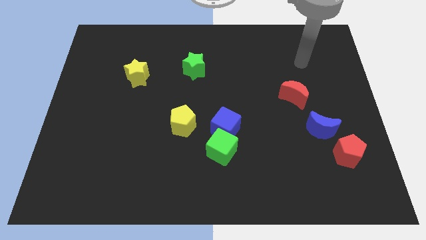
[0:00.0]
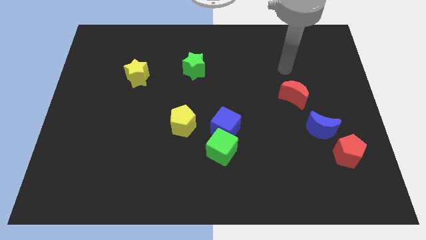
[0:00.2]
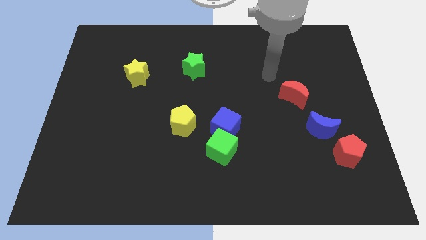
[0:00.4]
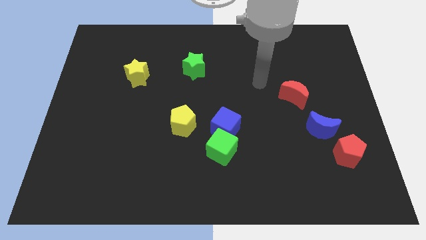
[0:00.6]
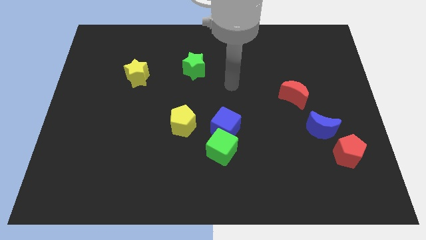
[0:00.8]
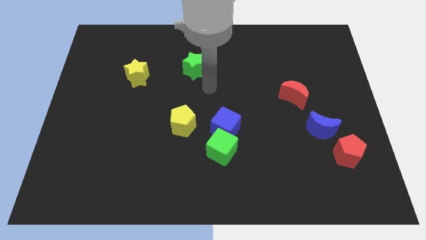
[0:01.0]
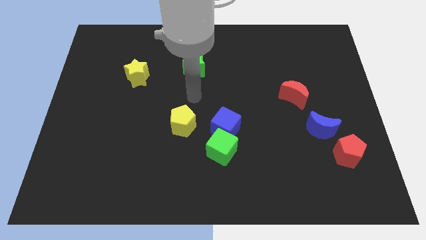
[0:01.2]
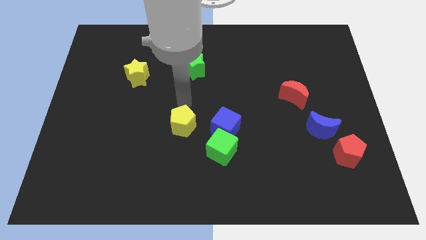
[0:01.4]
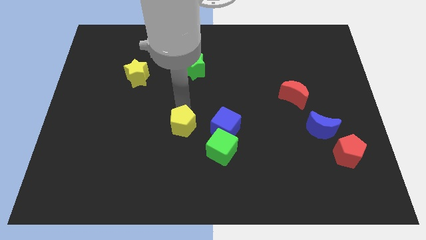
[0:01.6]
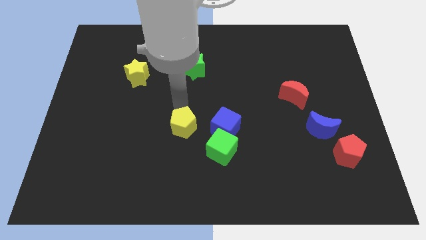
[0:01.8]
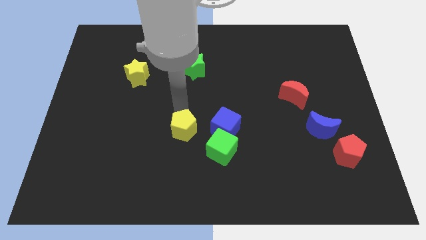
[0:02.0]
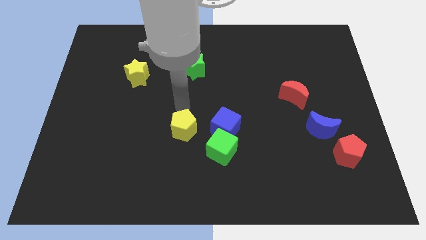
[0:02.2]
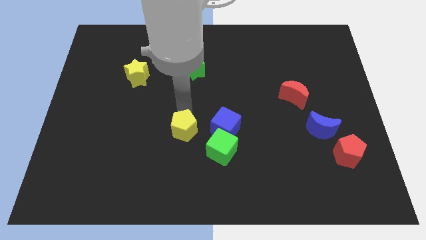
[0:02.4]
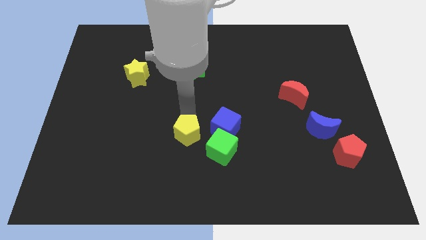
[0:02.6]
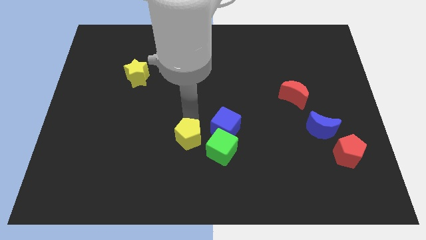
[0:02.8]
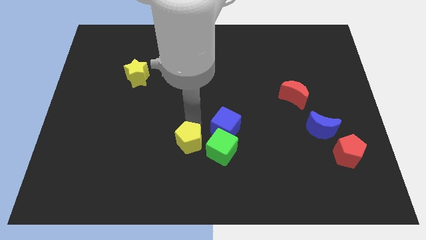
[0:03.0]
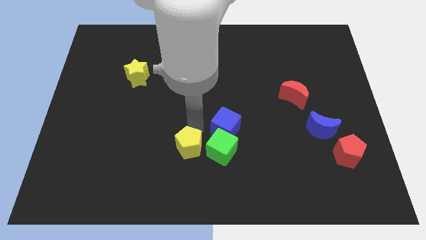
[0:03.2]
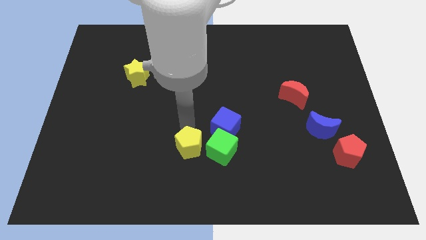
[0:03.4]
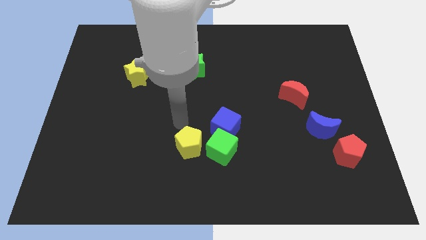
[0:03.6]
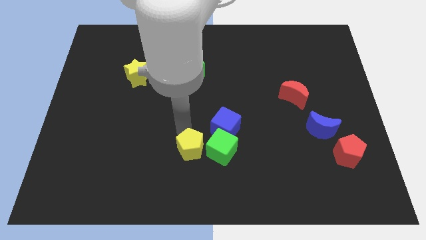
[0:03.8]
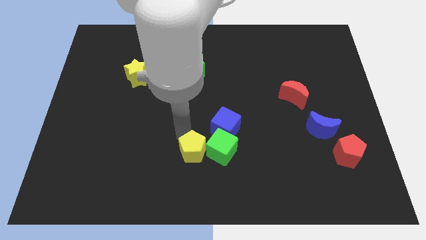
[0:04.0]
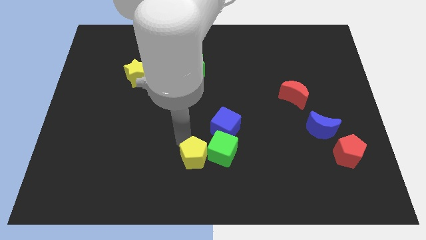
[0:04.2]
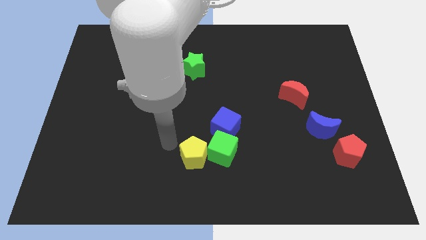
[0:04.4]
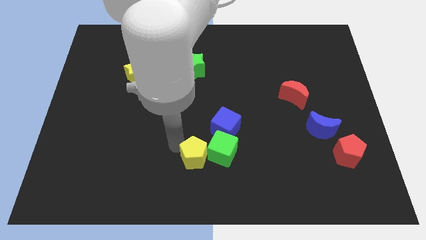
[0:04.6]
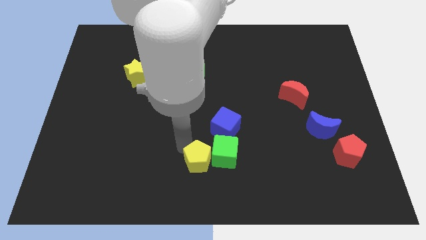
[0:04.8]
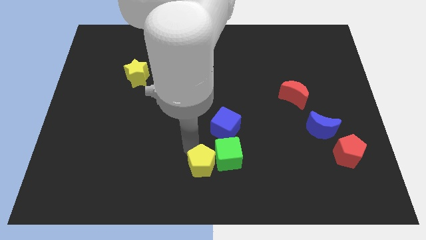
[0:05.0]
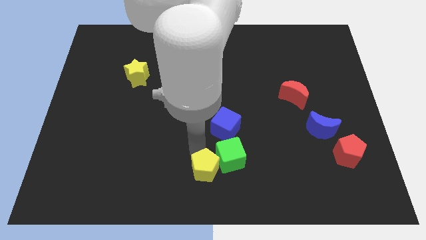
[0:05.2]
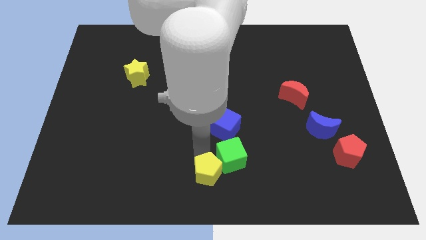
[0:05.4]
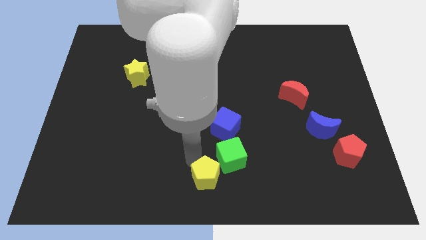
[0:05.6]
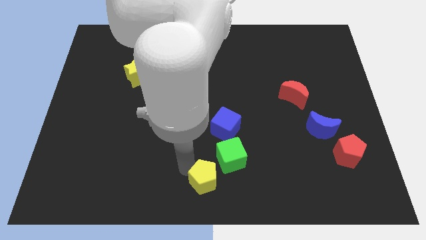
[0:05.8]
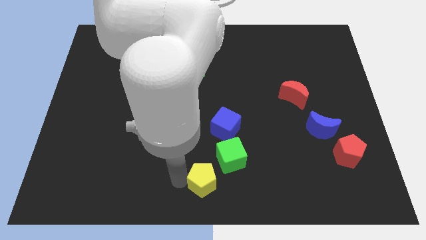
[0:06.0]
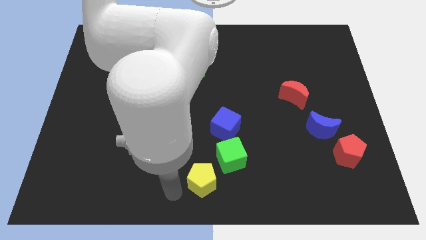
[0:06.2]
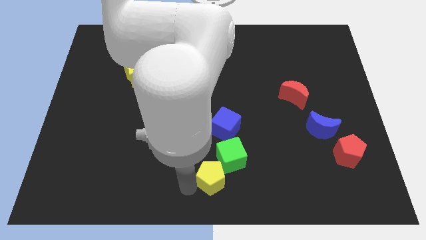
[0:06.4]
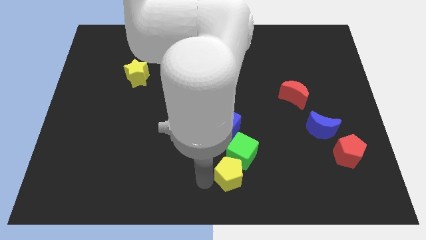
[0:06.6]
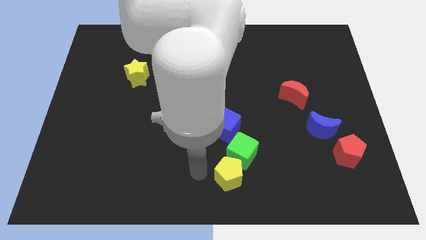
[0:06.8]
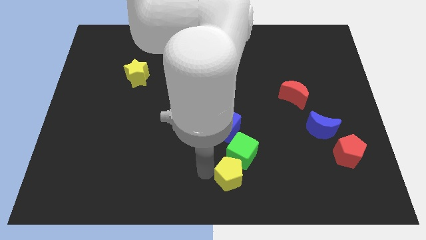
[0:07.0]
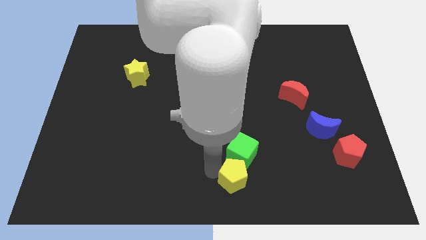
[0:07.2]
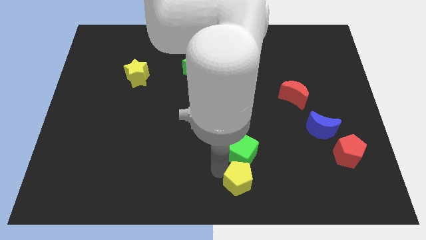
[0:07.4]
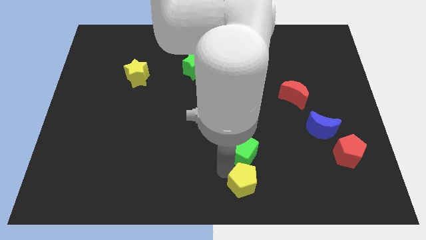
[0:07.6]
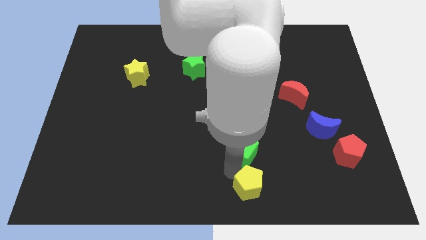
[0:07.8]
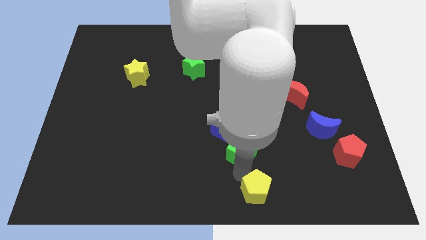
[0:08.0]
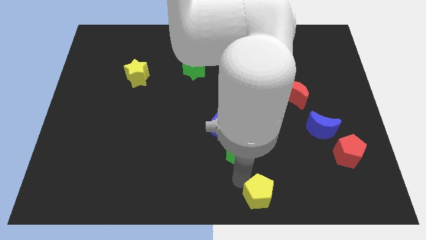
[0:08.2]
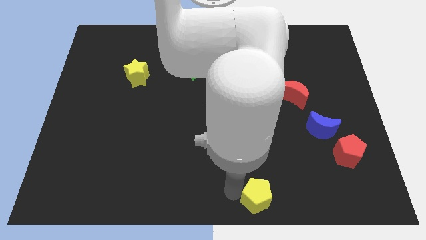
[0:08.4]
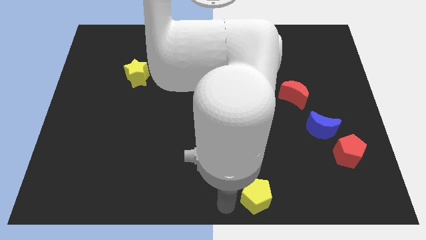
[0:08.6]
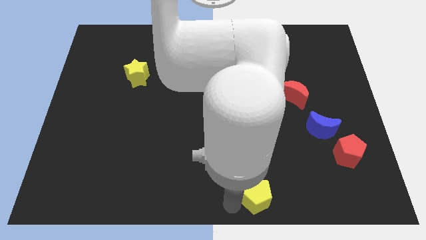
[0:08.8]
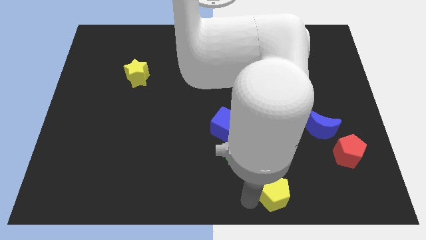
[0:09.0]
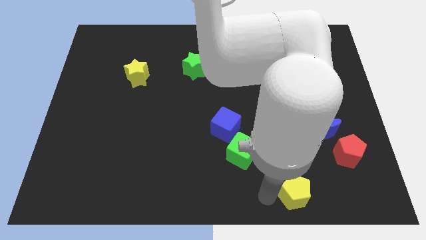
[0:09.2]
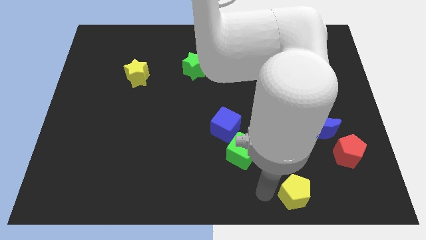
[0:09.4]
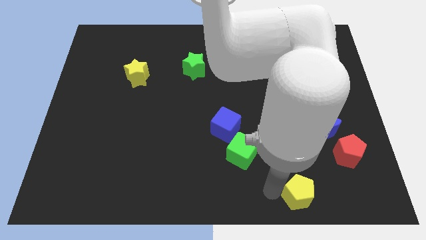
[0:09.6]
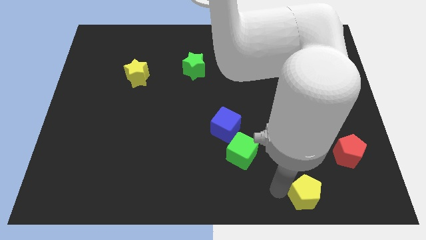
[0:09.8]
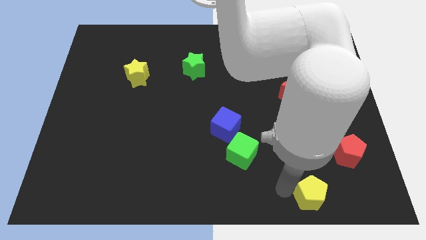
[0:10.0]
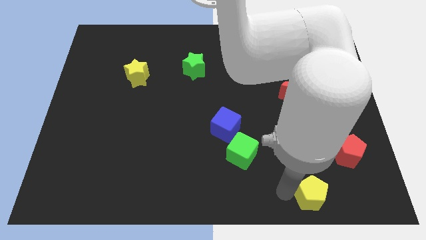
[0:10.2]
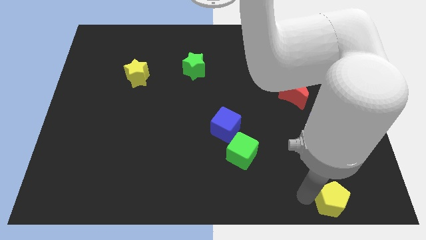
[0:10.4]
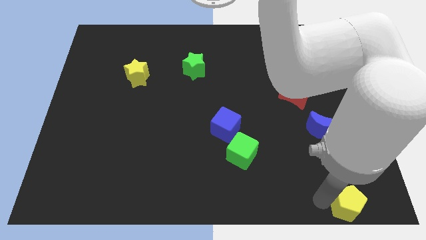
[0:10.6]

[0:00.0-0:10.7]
slide the yellow pentagon to the bottom right of the board
